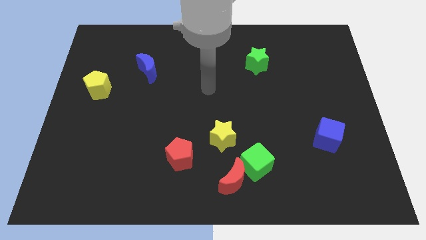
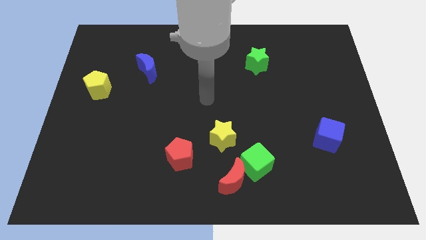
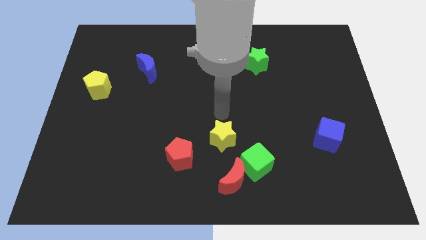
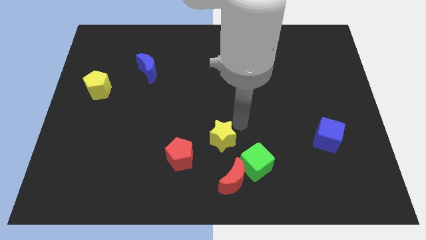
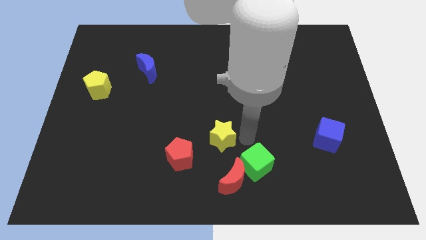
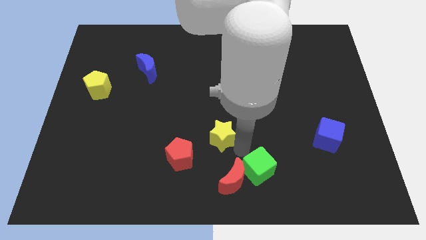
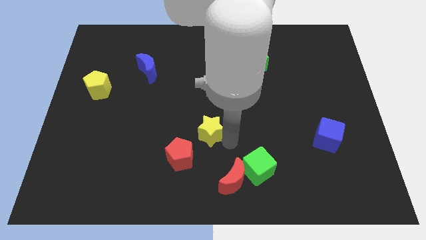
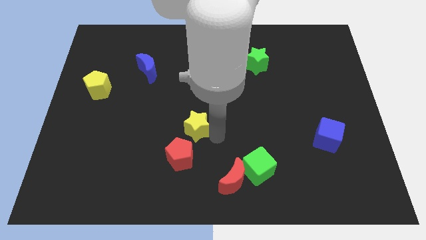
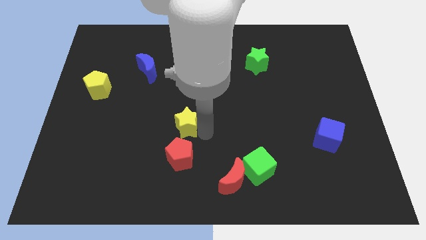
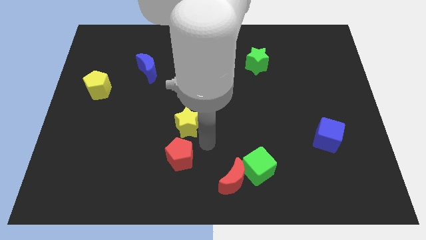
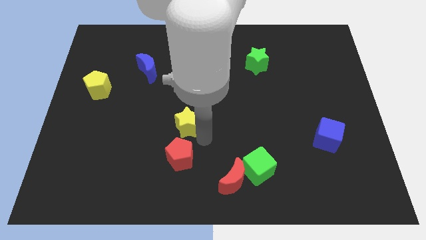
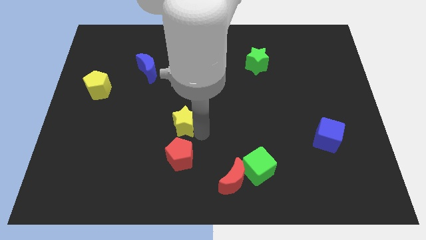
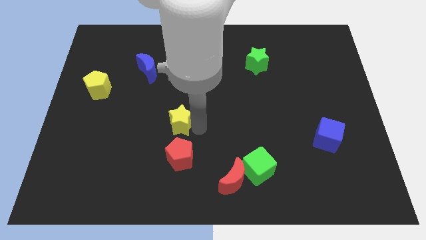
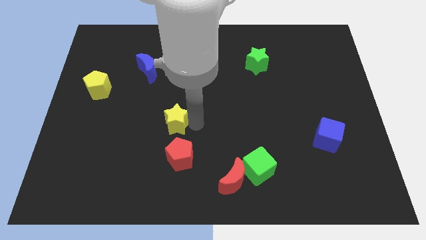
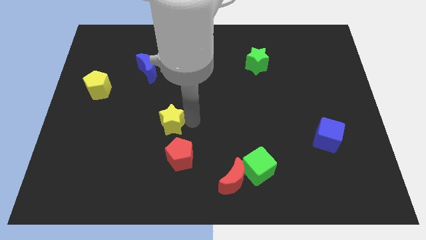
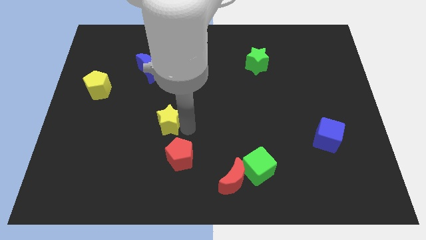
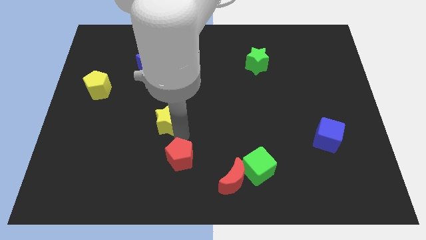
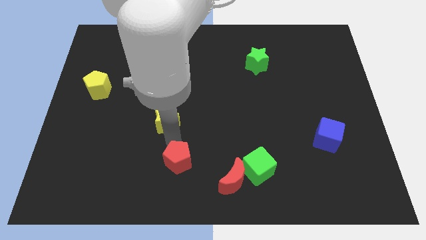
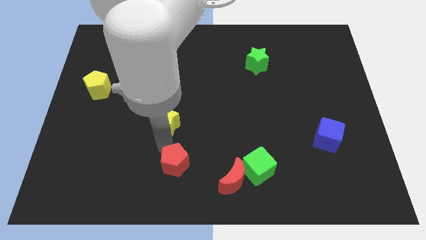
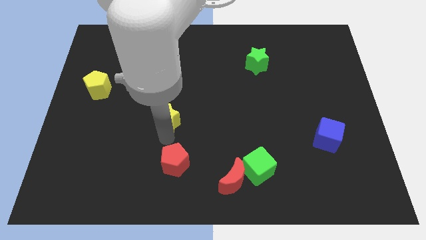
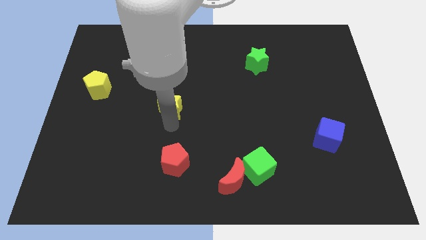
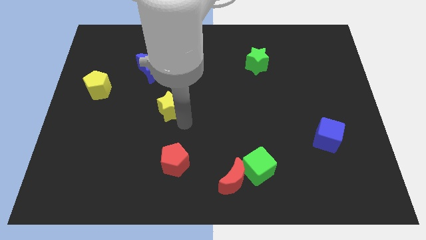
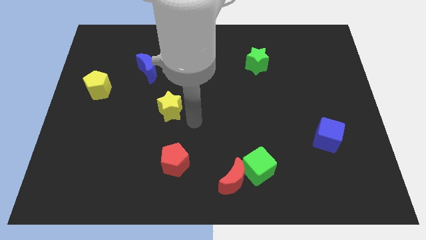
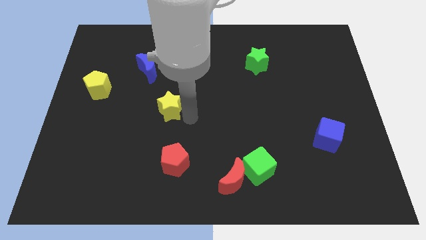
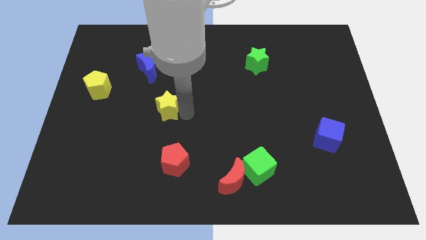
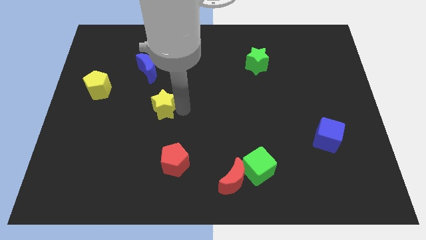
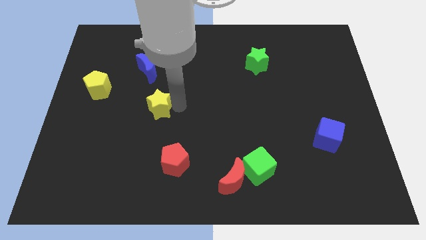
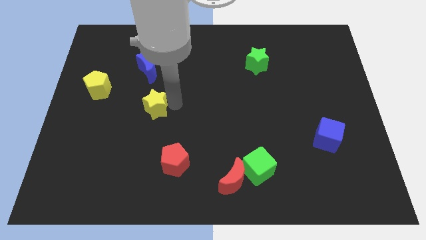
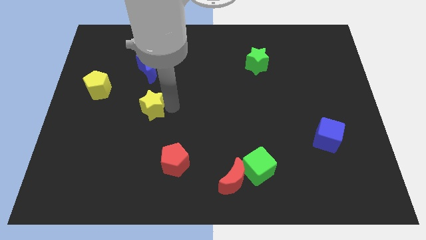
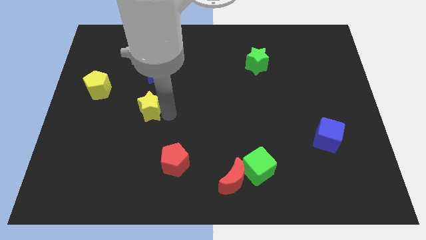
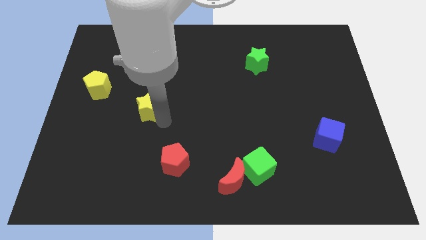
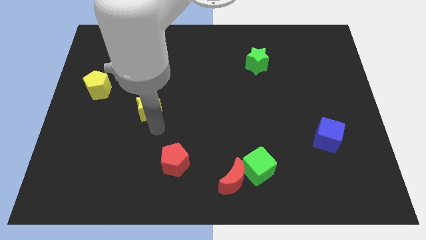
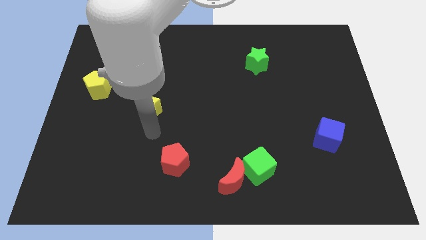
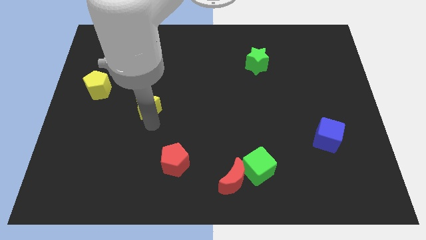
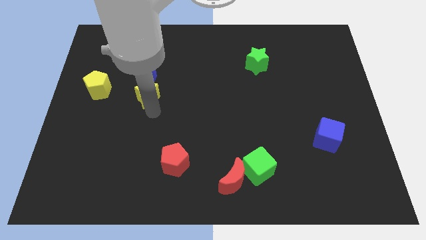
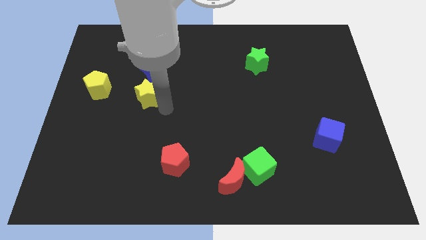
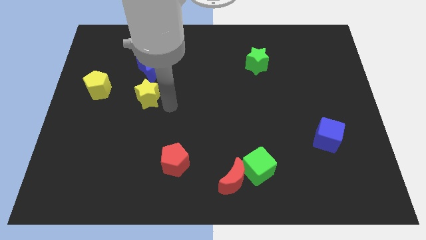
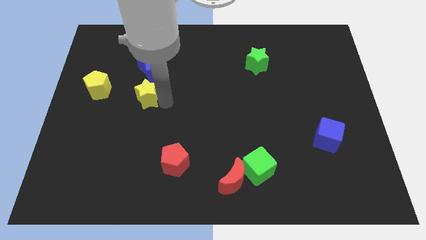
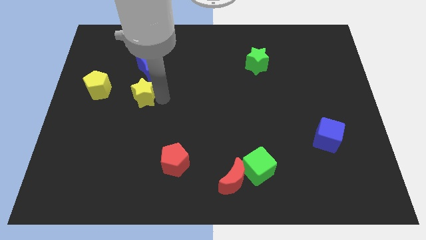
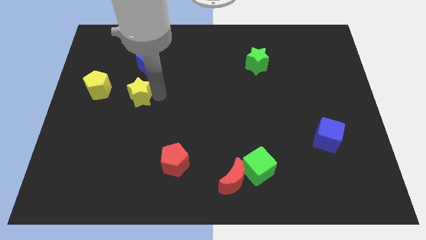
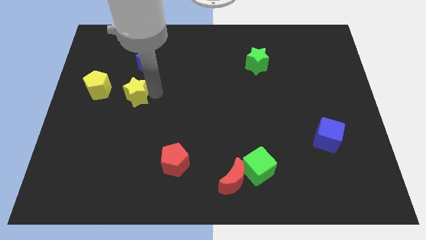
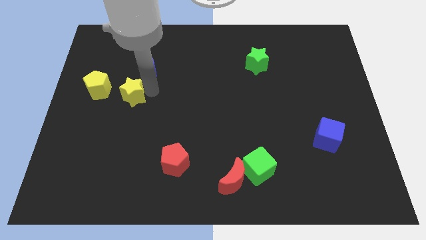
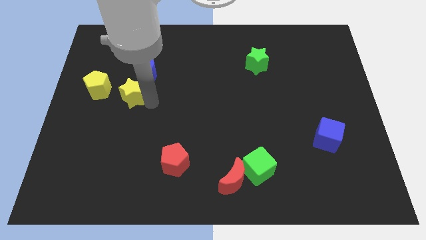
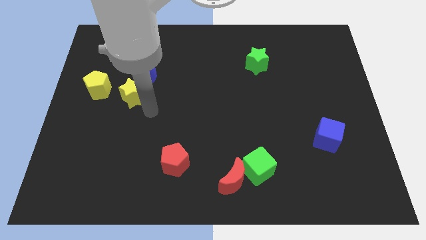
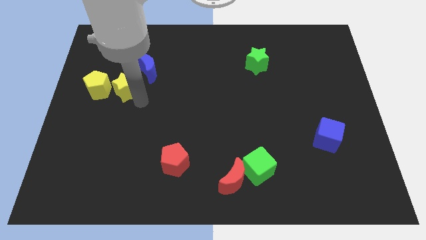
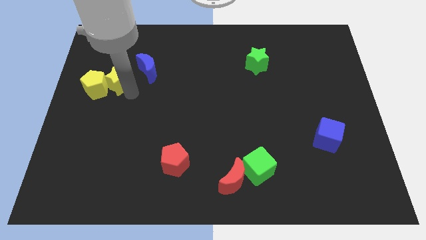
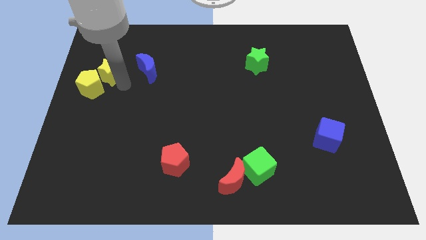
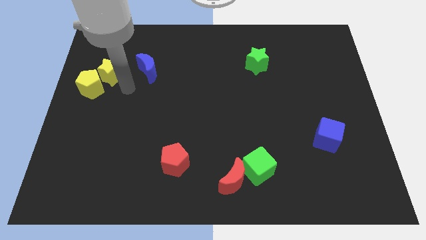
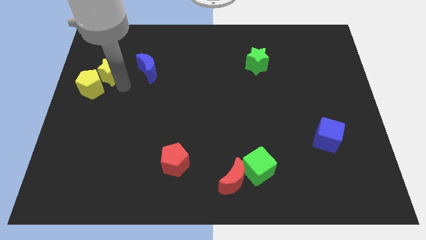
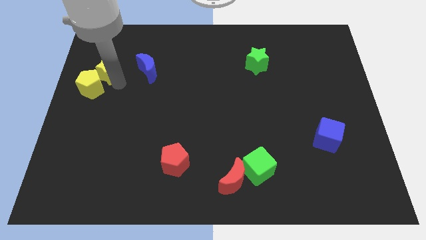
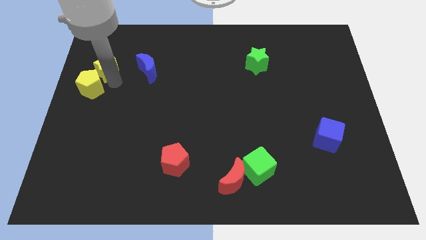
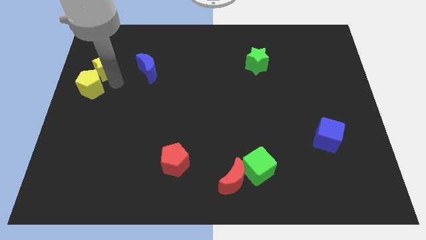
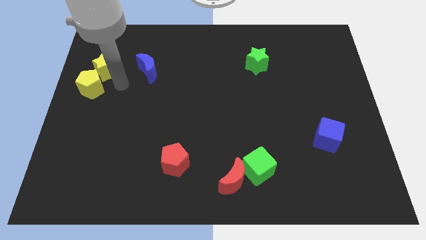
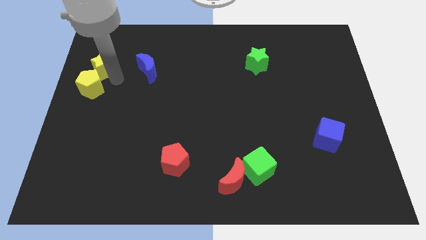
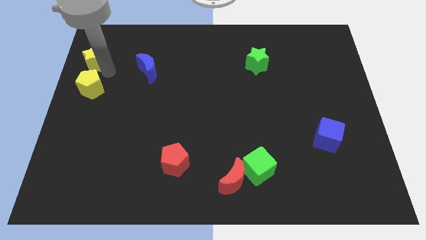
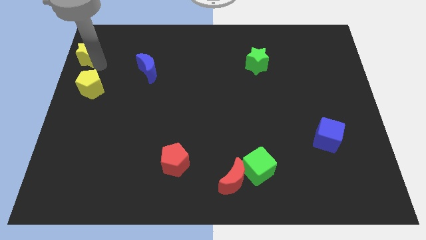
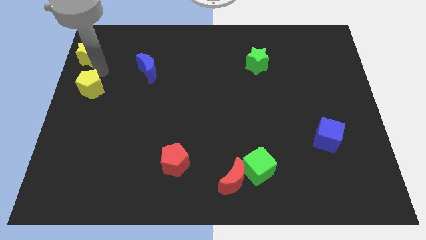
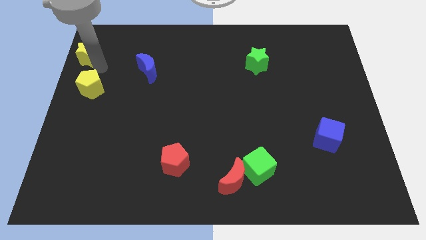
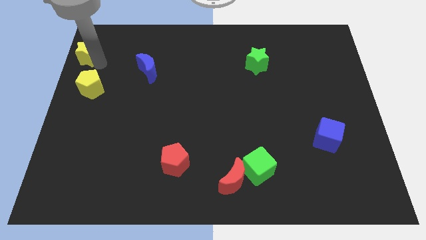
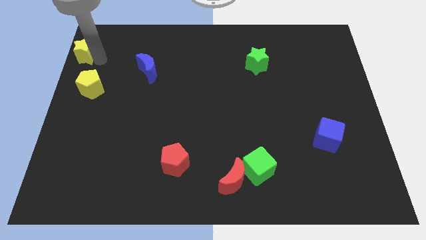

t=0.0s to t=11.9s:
put the yellow star to the top left of the board

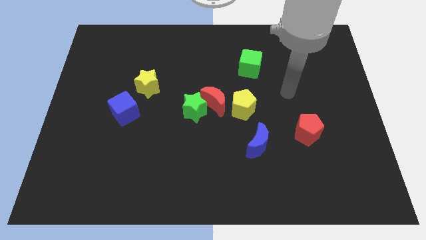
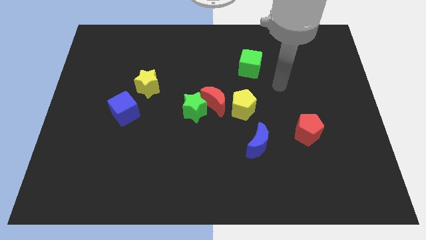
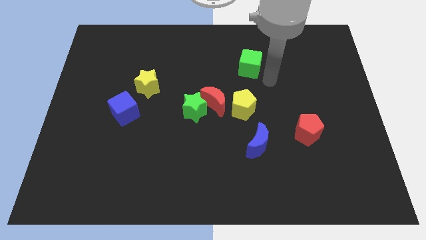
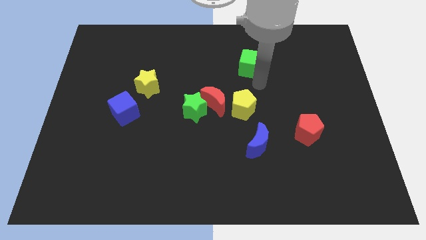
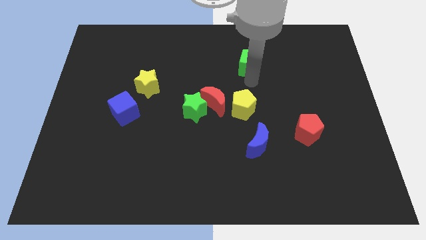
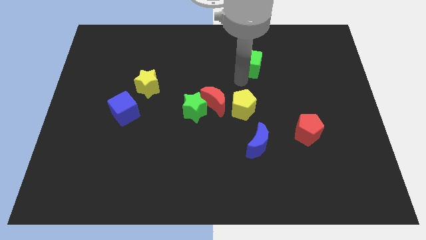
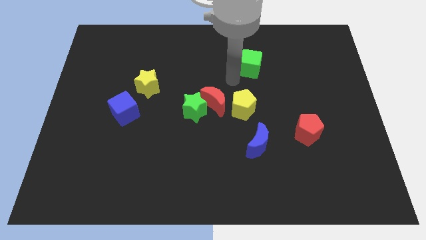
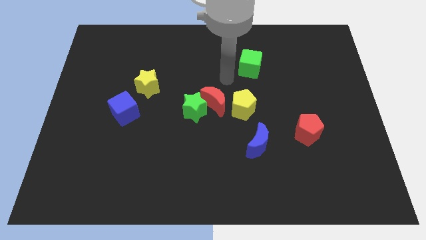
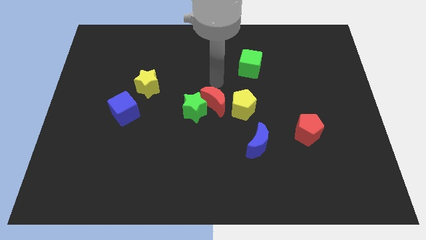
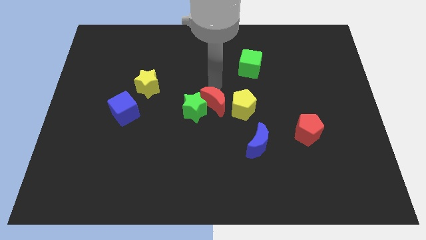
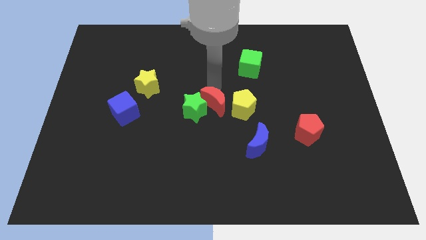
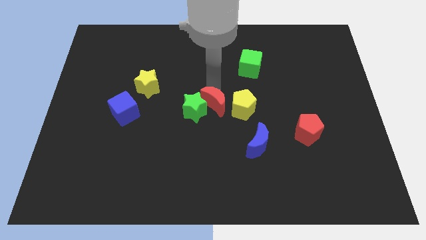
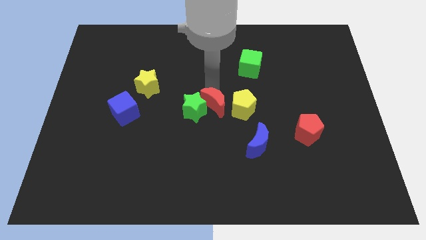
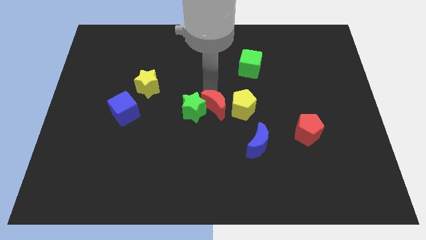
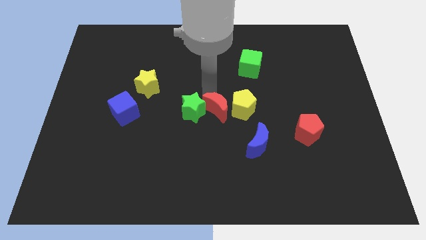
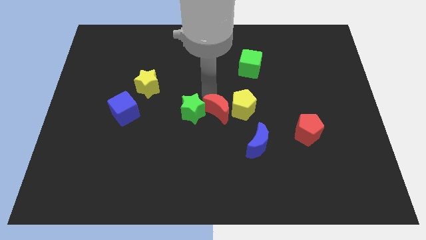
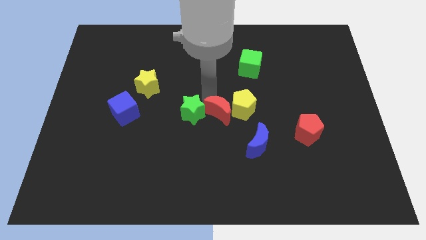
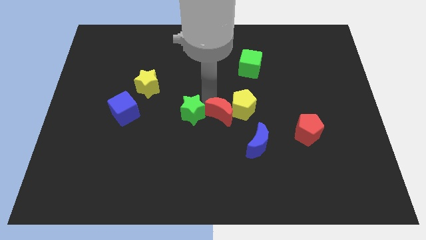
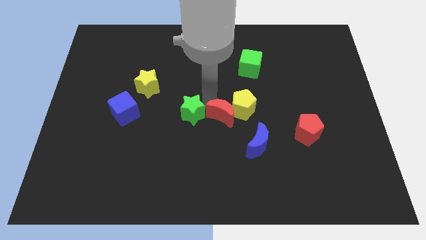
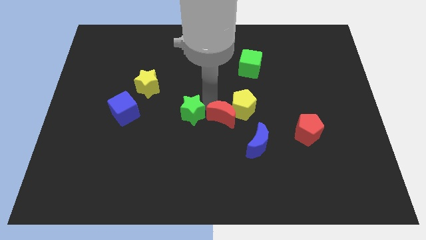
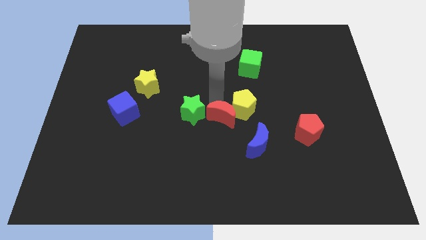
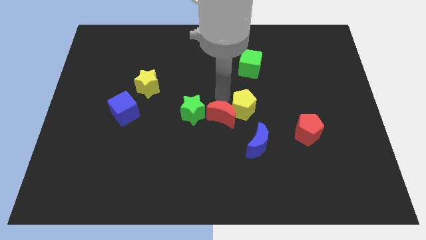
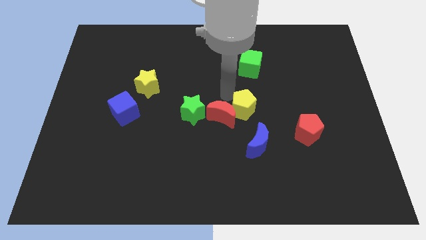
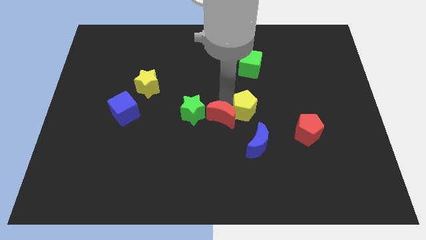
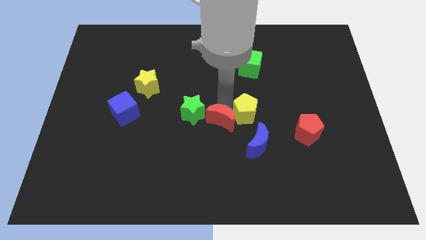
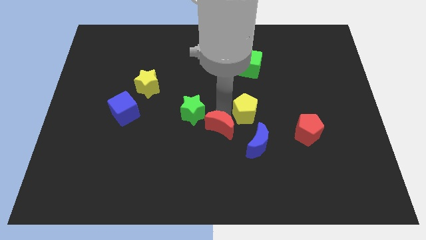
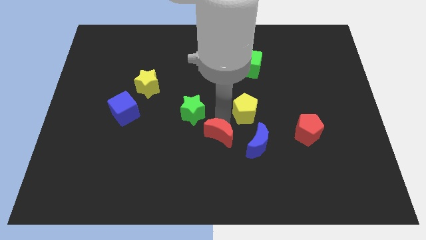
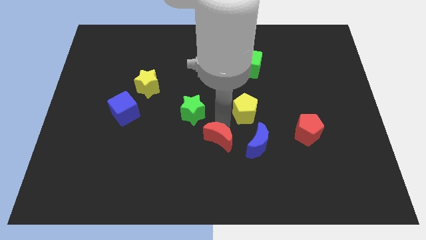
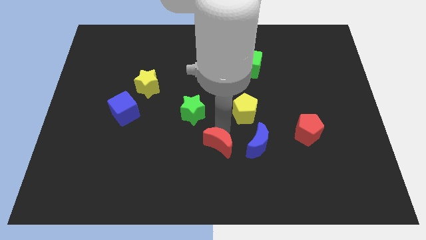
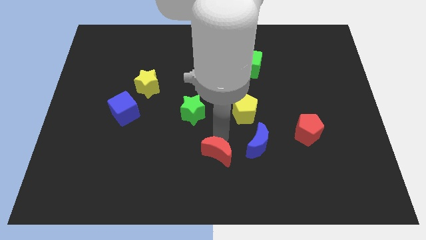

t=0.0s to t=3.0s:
slide the red moon to the bottom side
